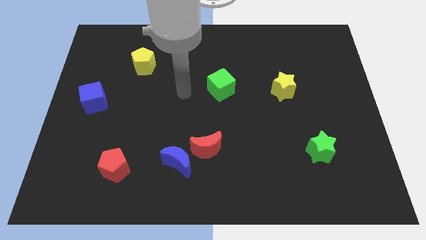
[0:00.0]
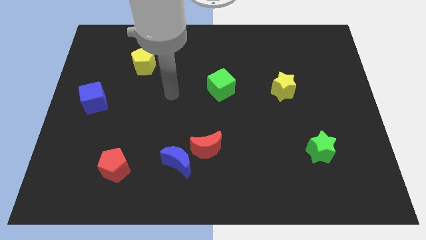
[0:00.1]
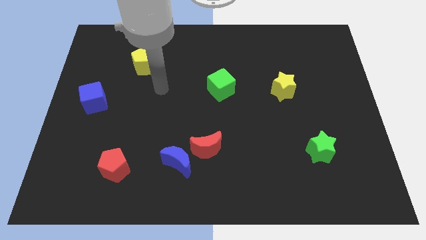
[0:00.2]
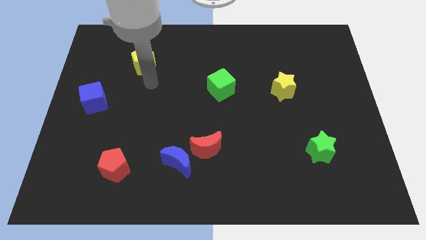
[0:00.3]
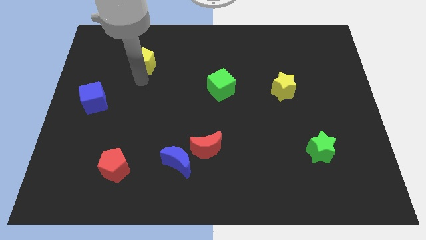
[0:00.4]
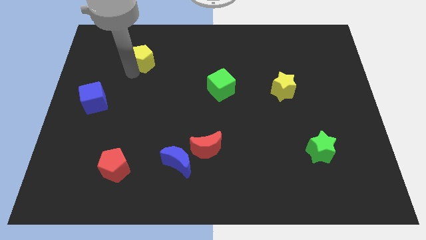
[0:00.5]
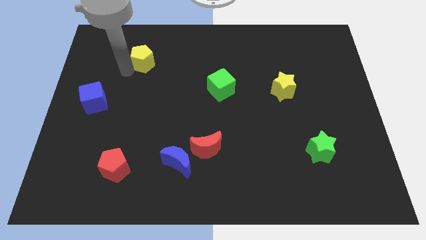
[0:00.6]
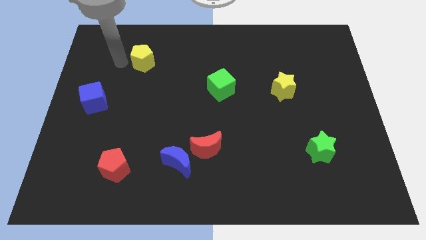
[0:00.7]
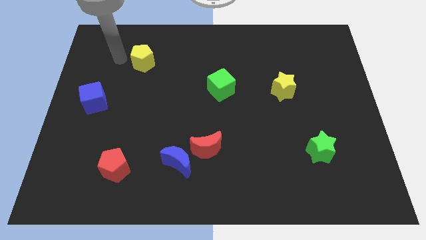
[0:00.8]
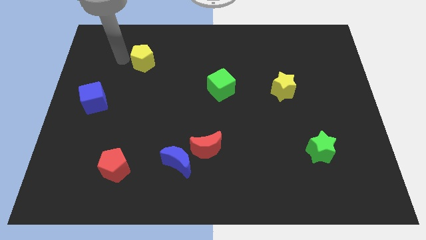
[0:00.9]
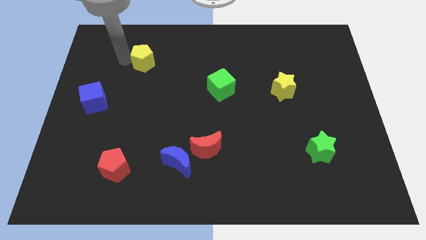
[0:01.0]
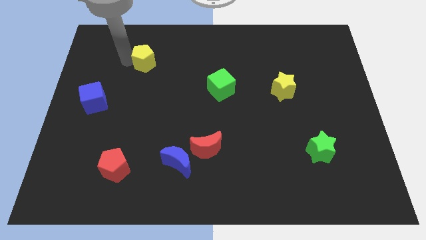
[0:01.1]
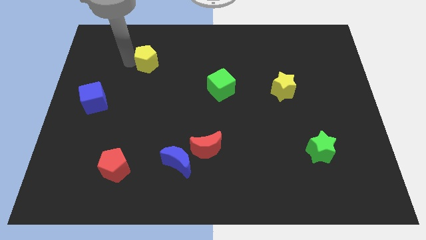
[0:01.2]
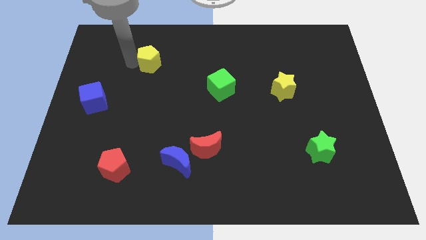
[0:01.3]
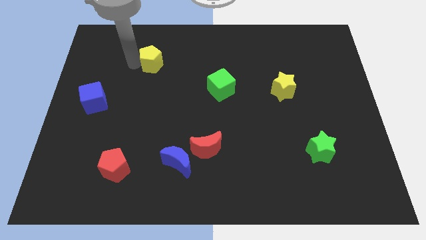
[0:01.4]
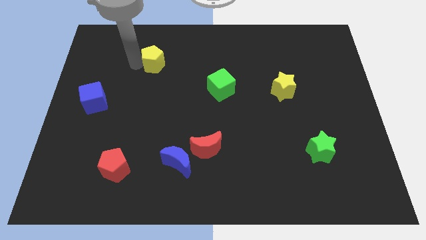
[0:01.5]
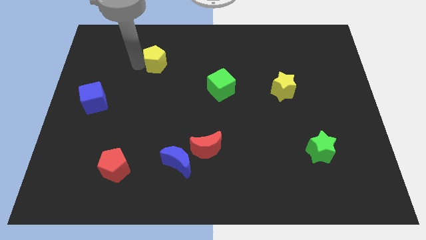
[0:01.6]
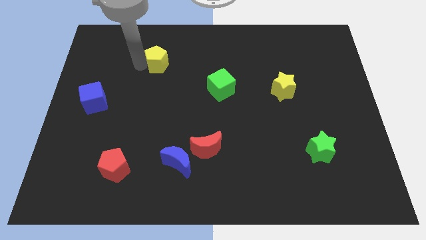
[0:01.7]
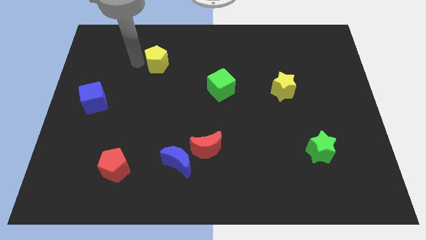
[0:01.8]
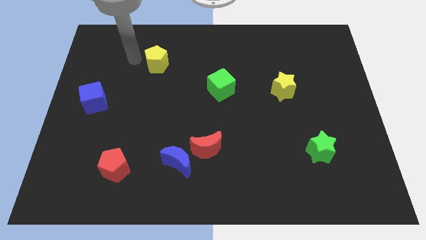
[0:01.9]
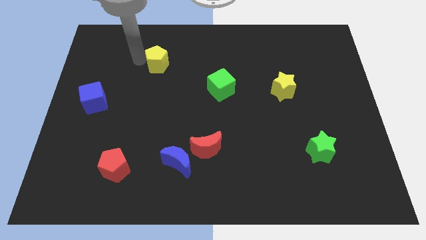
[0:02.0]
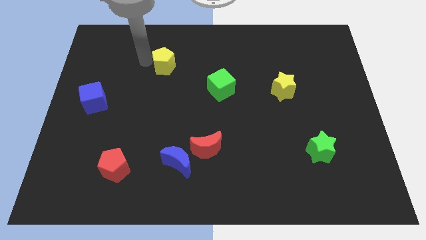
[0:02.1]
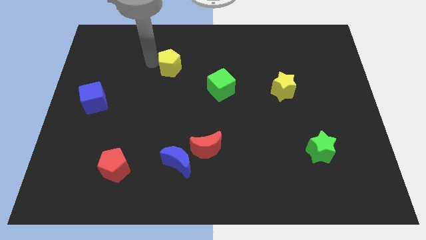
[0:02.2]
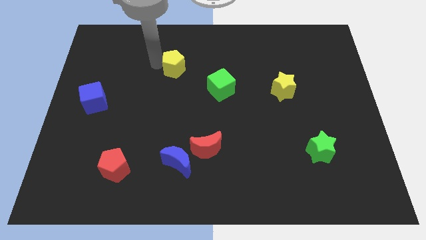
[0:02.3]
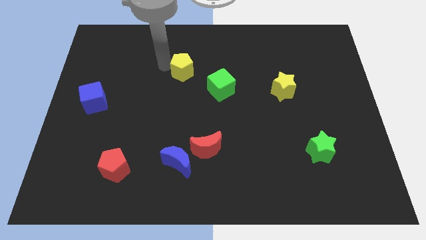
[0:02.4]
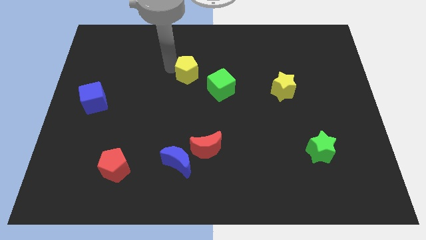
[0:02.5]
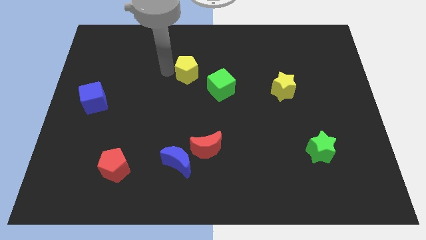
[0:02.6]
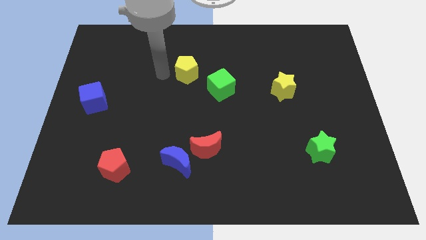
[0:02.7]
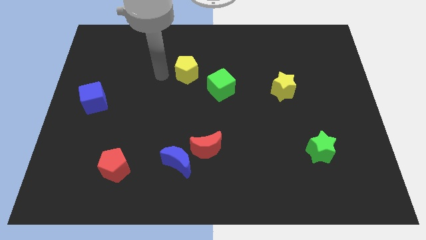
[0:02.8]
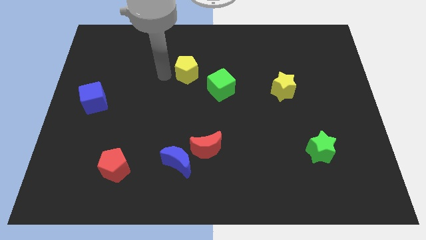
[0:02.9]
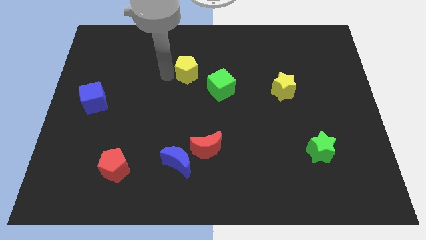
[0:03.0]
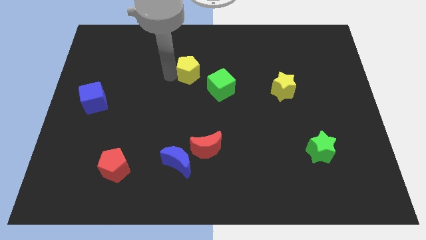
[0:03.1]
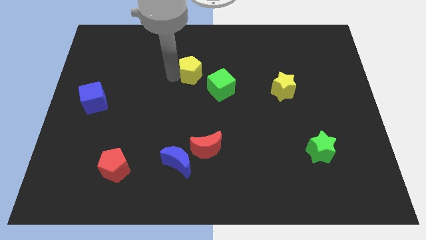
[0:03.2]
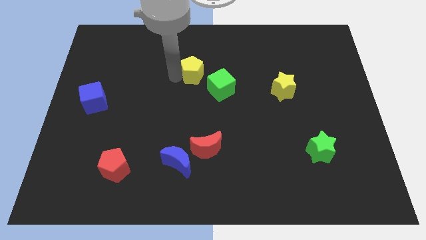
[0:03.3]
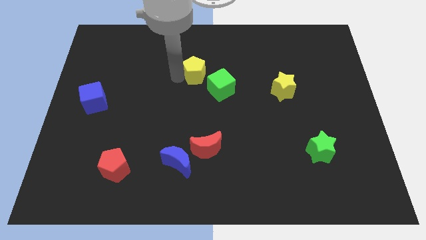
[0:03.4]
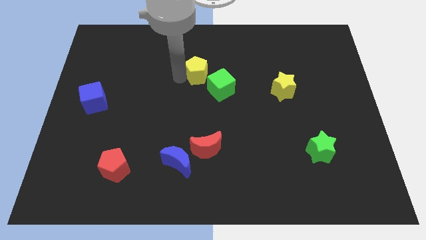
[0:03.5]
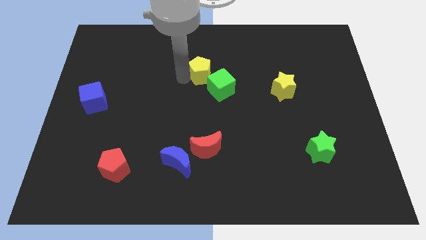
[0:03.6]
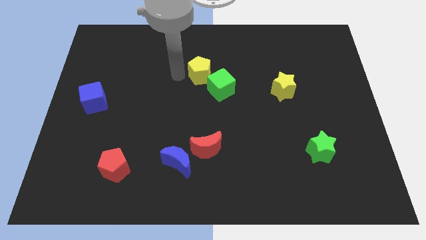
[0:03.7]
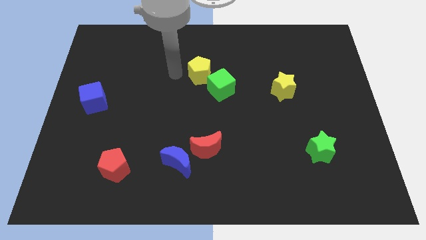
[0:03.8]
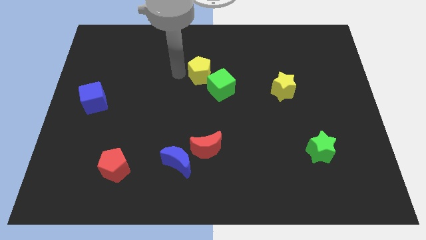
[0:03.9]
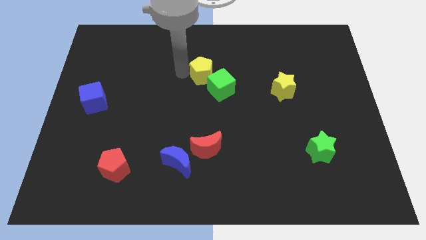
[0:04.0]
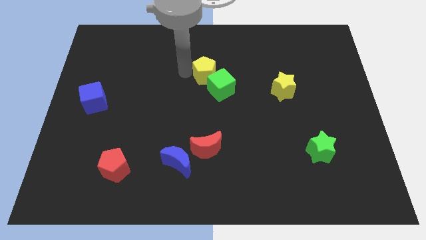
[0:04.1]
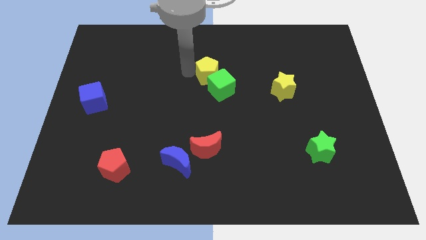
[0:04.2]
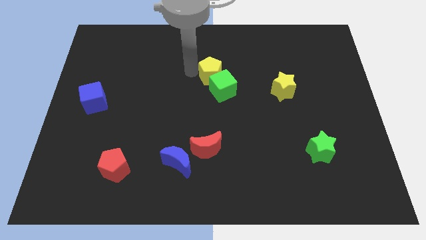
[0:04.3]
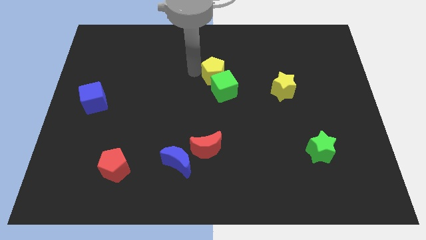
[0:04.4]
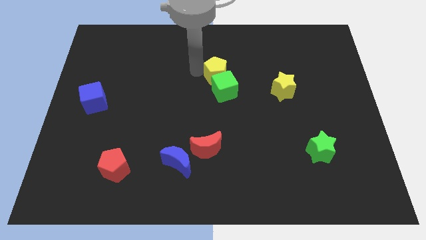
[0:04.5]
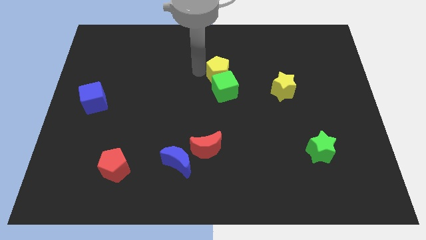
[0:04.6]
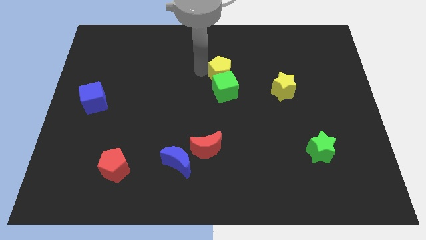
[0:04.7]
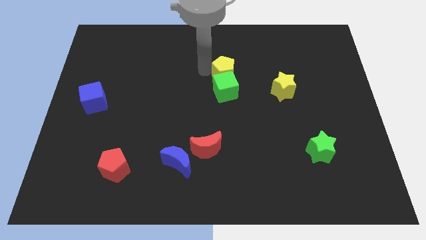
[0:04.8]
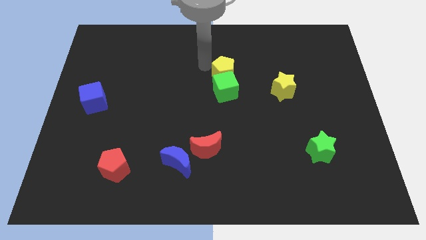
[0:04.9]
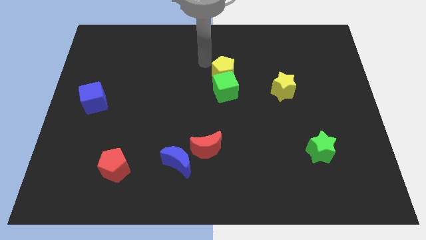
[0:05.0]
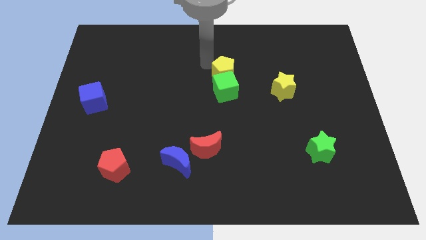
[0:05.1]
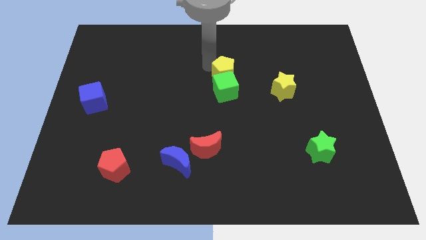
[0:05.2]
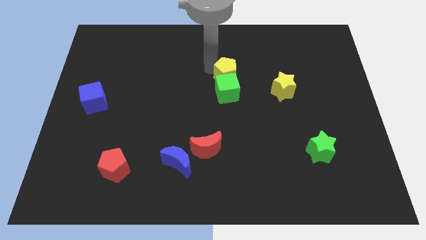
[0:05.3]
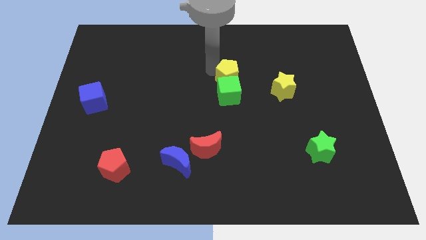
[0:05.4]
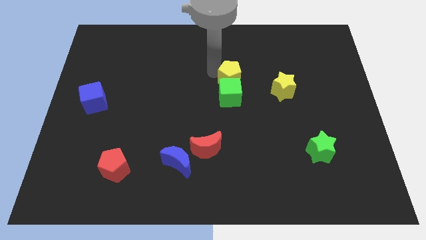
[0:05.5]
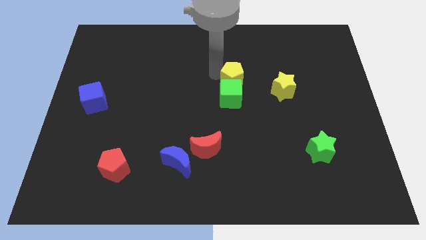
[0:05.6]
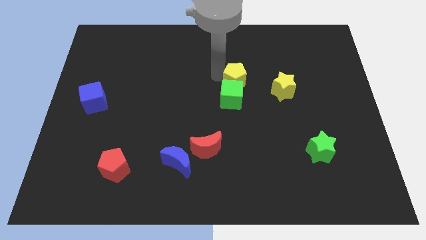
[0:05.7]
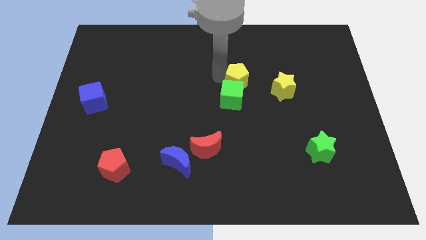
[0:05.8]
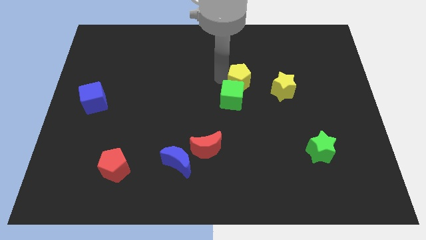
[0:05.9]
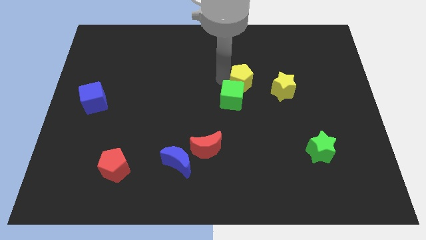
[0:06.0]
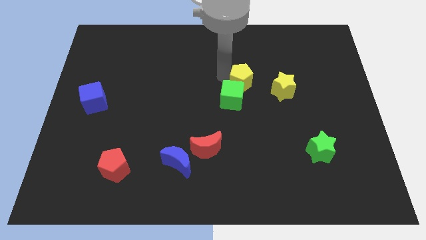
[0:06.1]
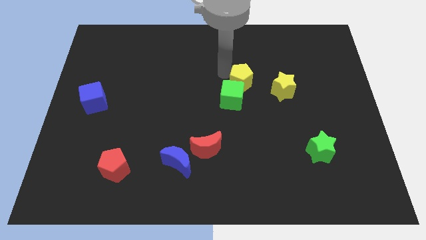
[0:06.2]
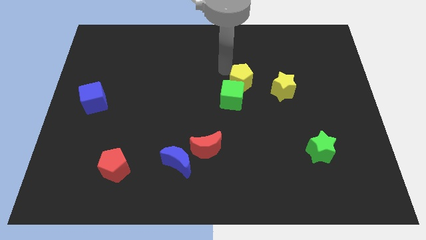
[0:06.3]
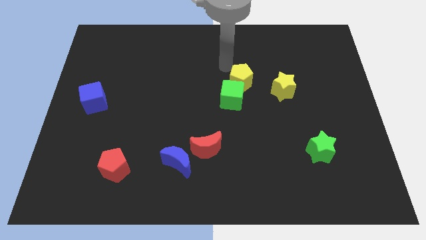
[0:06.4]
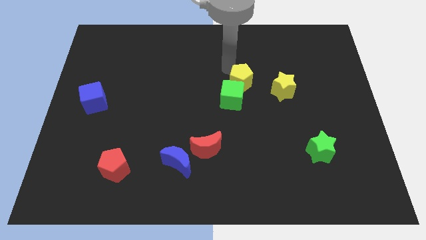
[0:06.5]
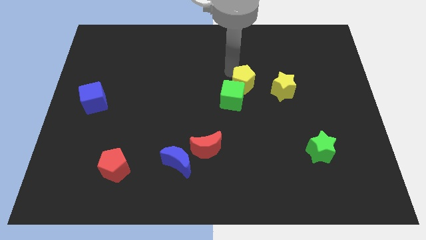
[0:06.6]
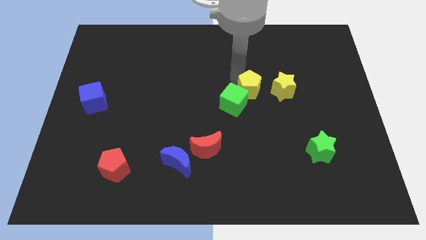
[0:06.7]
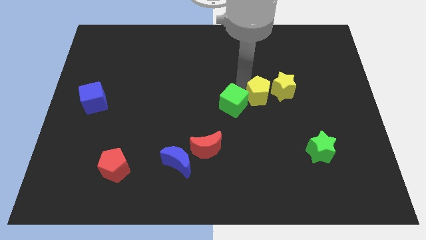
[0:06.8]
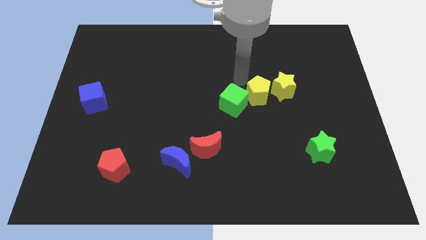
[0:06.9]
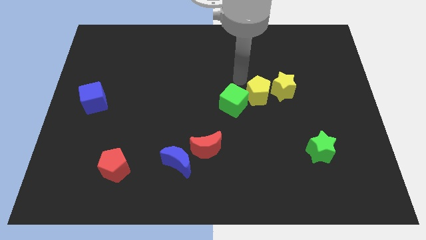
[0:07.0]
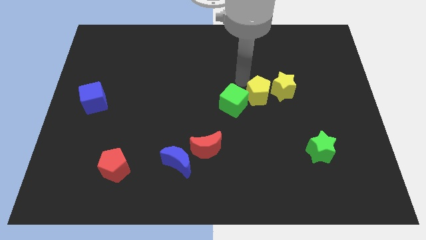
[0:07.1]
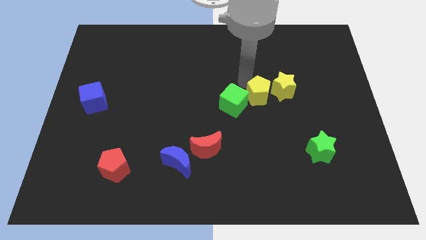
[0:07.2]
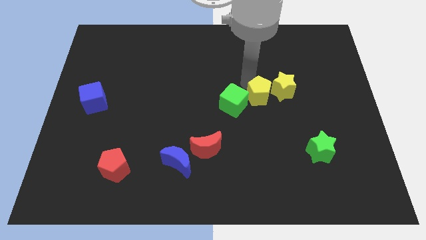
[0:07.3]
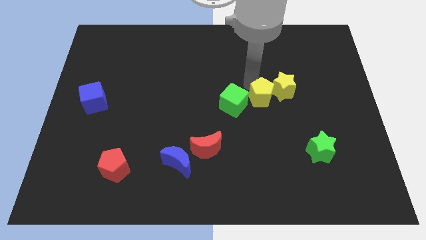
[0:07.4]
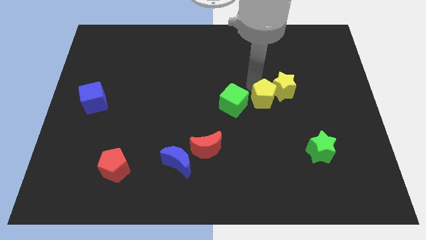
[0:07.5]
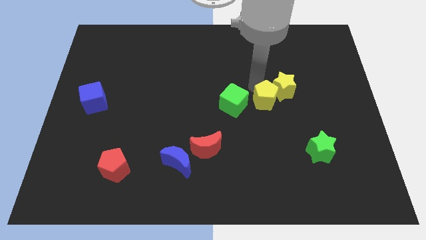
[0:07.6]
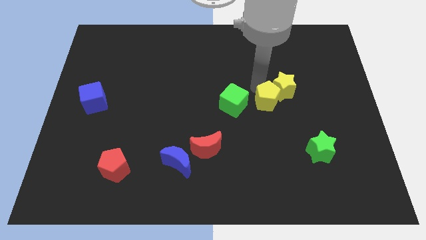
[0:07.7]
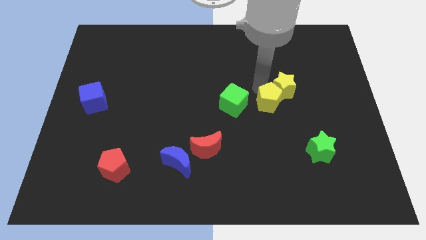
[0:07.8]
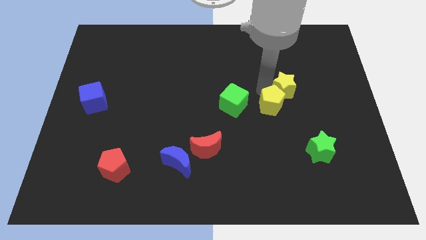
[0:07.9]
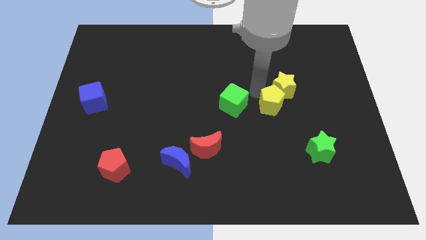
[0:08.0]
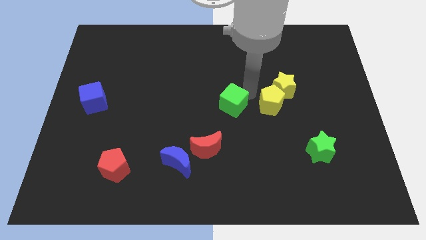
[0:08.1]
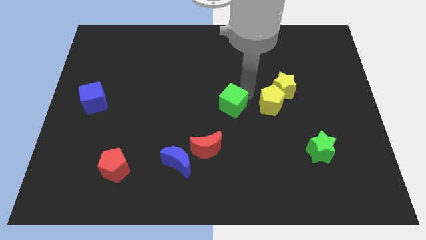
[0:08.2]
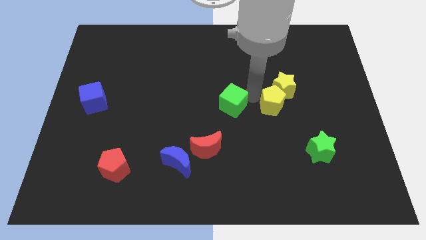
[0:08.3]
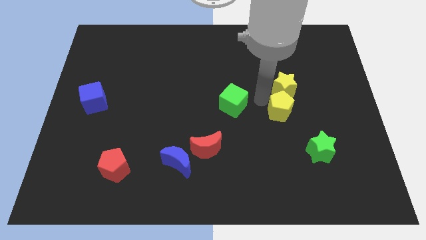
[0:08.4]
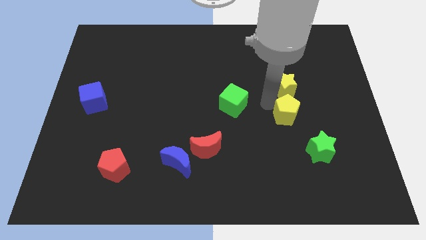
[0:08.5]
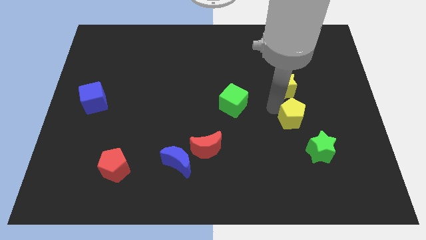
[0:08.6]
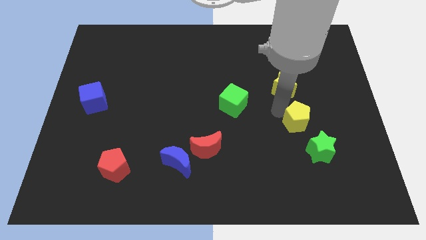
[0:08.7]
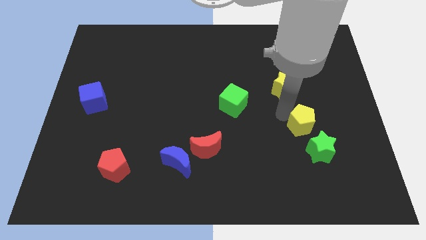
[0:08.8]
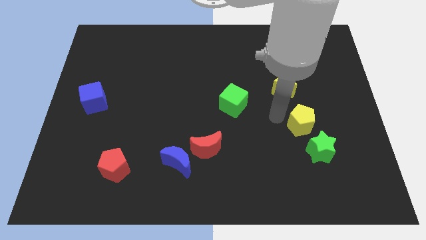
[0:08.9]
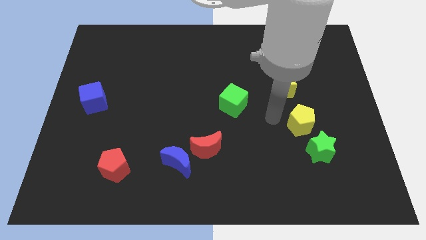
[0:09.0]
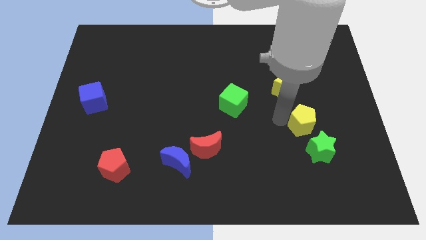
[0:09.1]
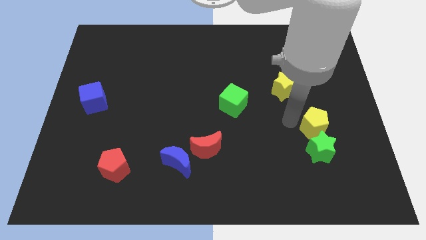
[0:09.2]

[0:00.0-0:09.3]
slide the yellow pentagon to the top right side of the green star
